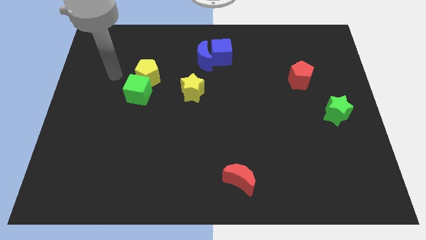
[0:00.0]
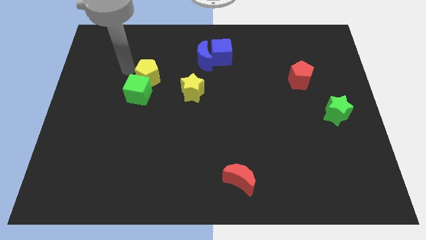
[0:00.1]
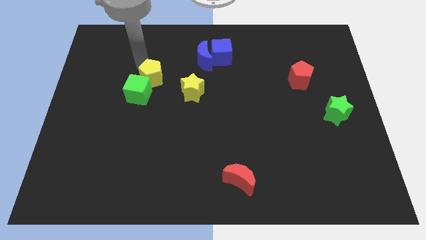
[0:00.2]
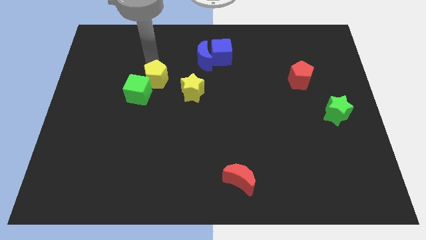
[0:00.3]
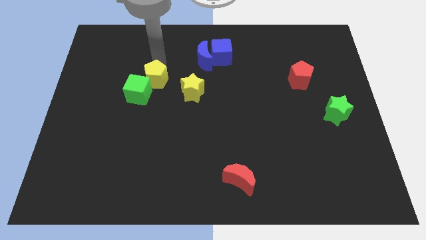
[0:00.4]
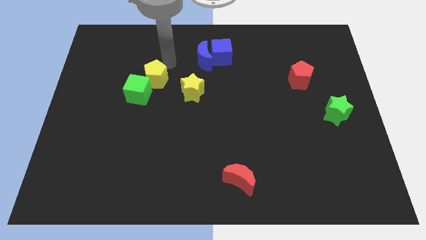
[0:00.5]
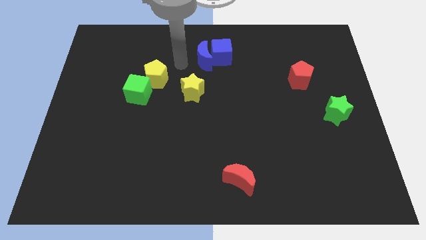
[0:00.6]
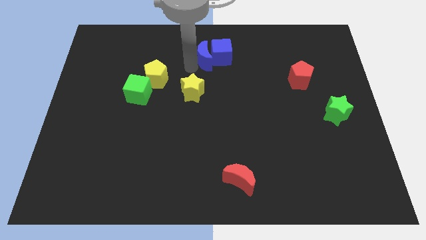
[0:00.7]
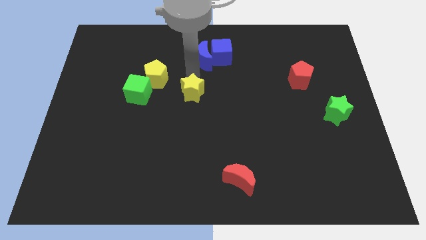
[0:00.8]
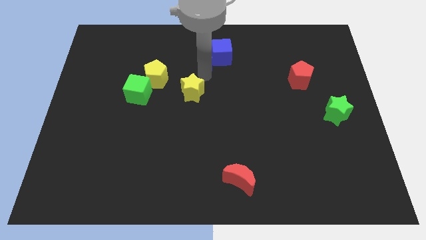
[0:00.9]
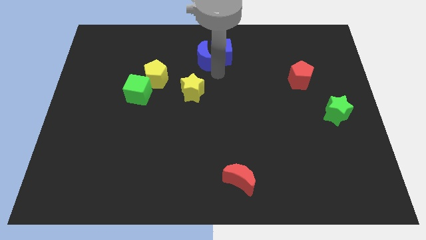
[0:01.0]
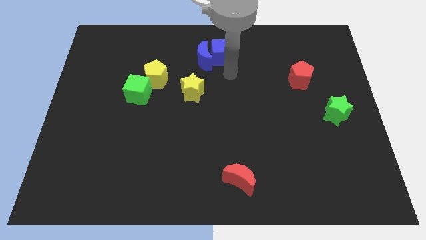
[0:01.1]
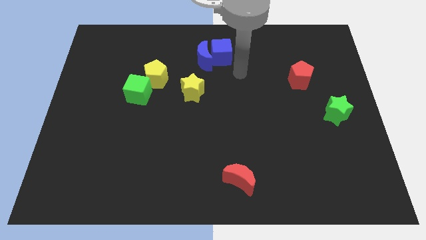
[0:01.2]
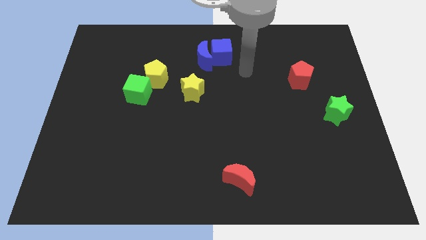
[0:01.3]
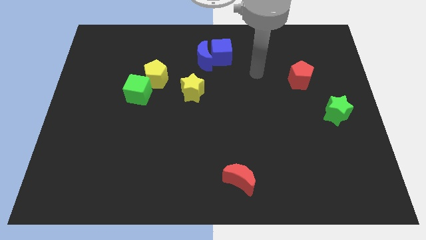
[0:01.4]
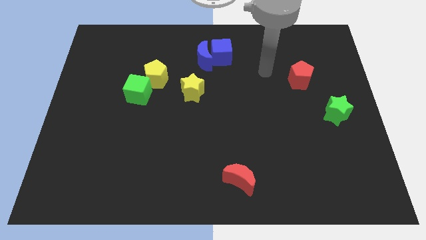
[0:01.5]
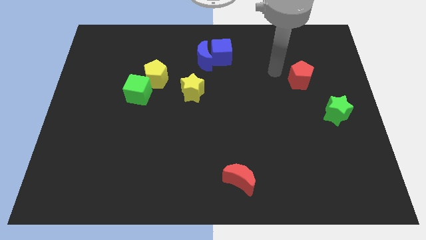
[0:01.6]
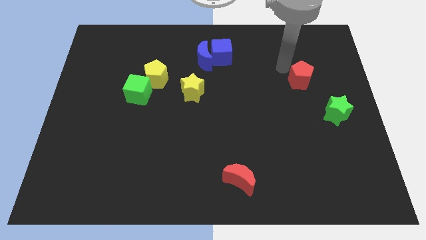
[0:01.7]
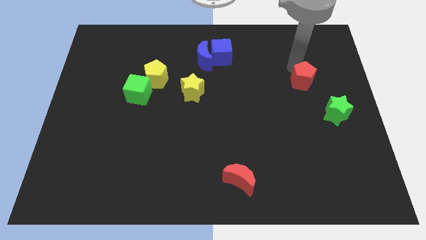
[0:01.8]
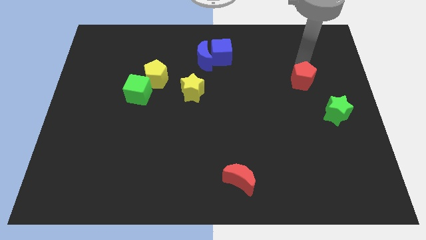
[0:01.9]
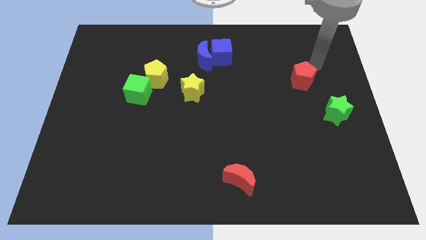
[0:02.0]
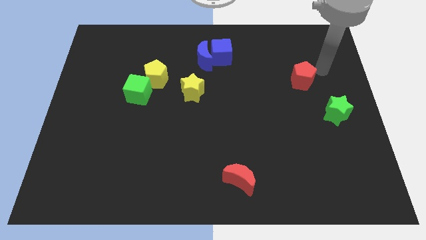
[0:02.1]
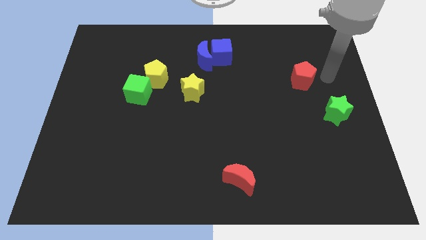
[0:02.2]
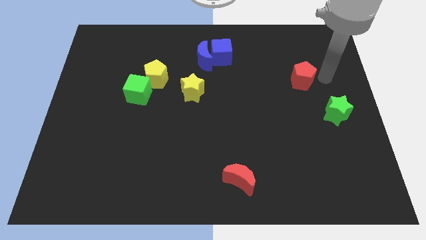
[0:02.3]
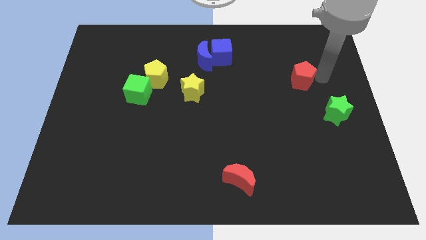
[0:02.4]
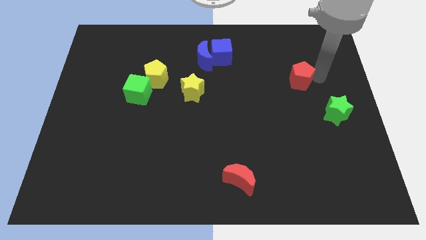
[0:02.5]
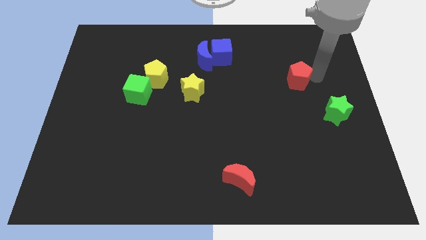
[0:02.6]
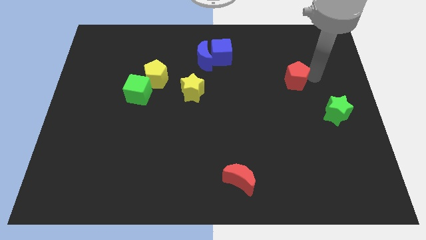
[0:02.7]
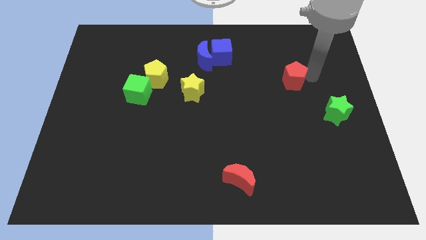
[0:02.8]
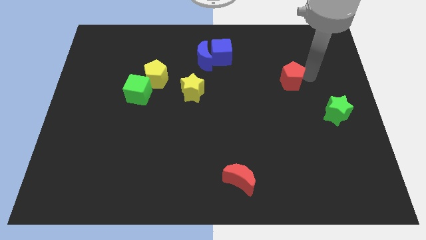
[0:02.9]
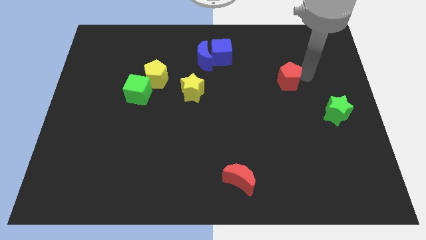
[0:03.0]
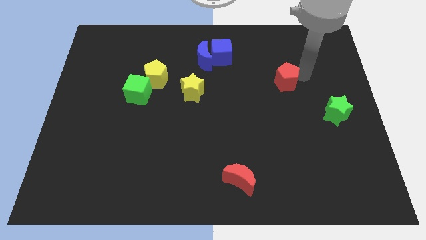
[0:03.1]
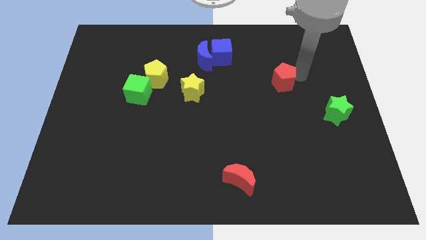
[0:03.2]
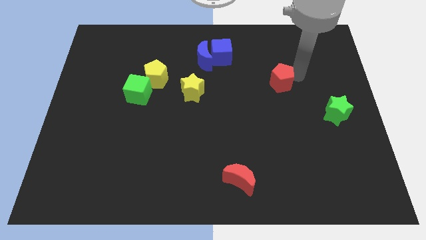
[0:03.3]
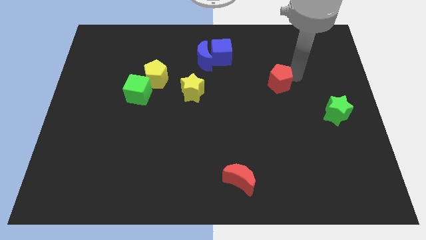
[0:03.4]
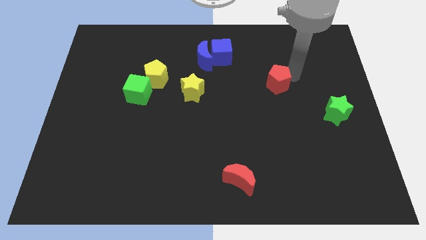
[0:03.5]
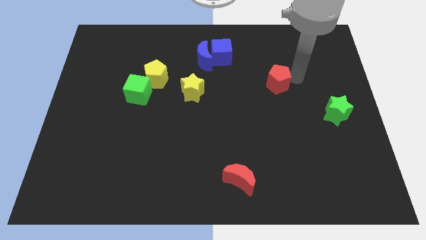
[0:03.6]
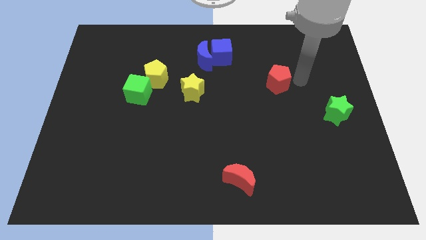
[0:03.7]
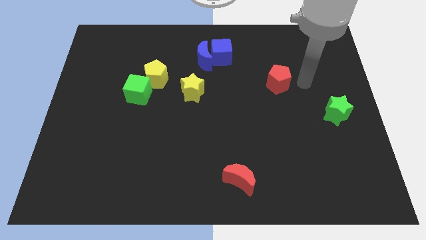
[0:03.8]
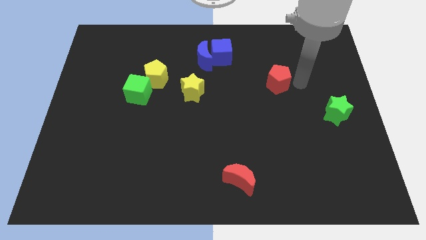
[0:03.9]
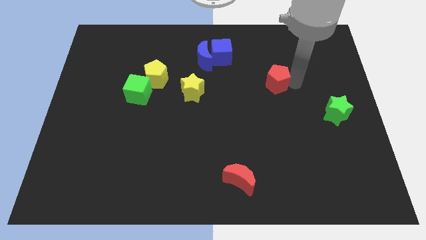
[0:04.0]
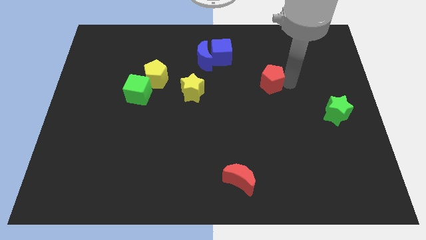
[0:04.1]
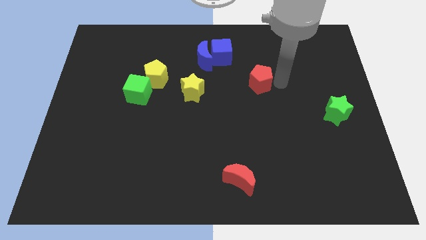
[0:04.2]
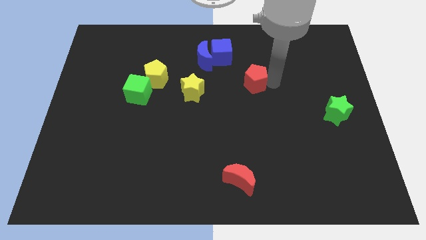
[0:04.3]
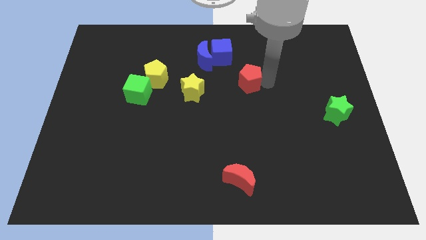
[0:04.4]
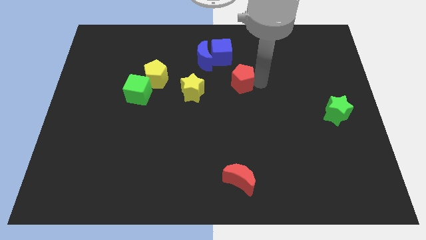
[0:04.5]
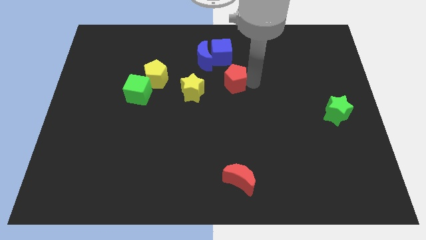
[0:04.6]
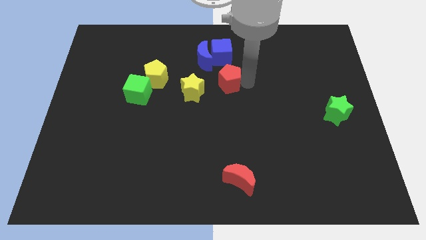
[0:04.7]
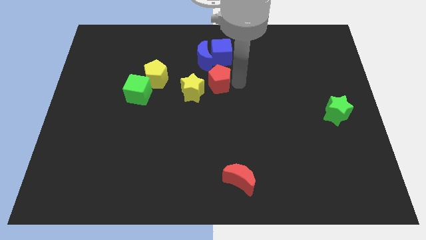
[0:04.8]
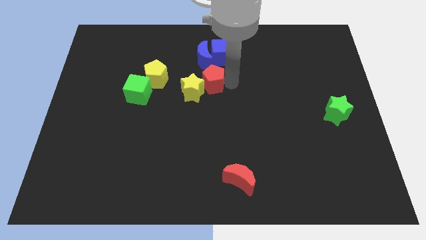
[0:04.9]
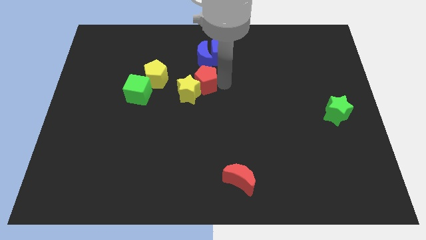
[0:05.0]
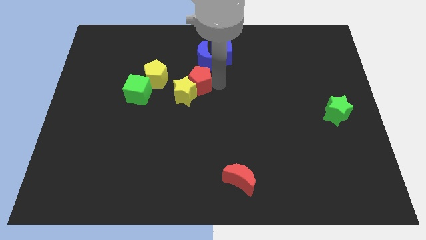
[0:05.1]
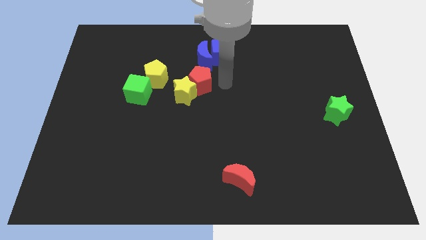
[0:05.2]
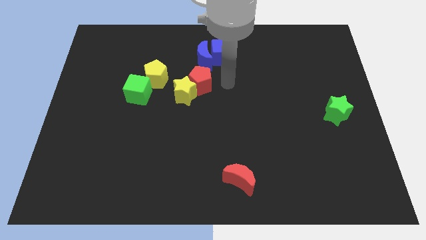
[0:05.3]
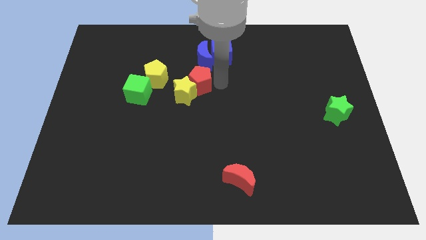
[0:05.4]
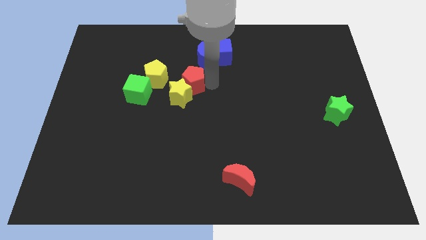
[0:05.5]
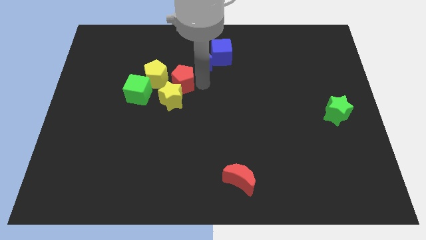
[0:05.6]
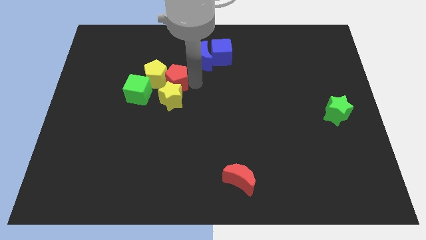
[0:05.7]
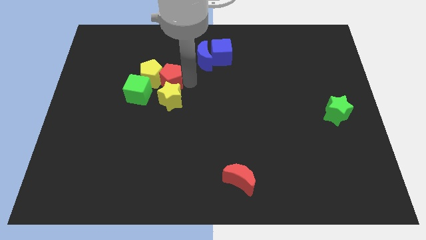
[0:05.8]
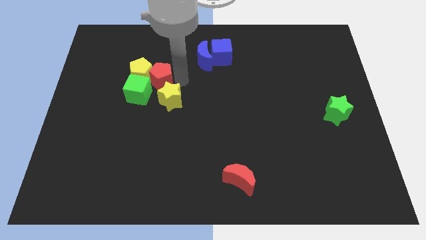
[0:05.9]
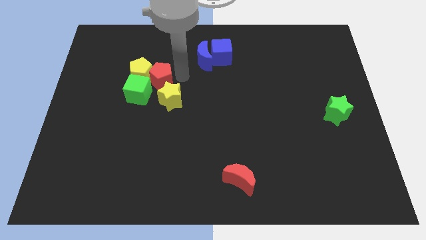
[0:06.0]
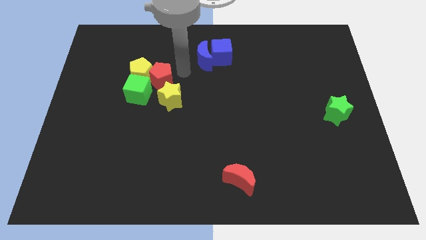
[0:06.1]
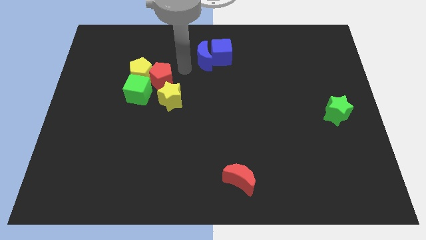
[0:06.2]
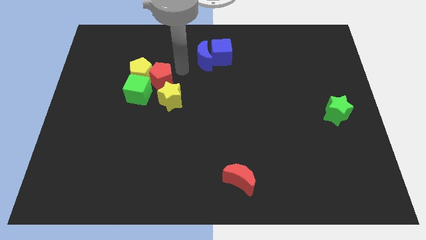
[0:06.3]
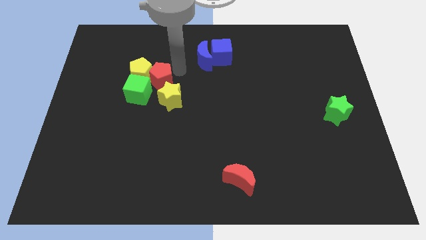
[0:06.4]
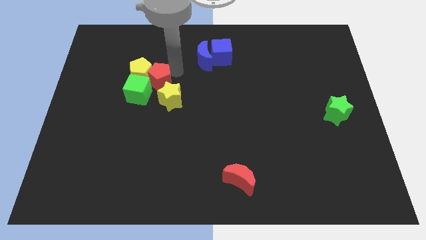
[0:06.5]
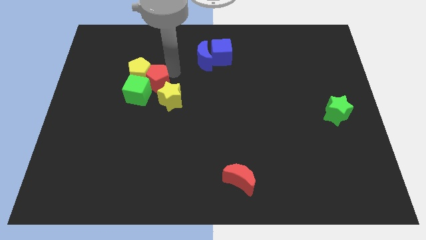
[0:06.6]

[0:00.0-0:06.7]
slide the red pentagon close to the green cube

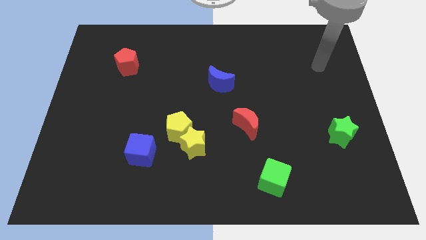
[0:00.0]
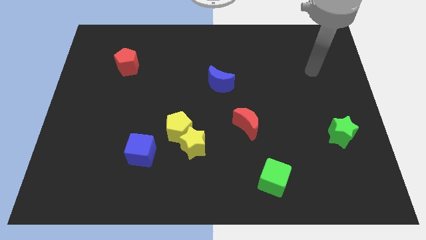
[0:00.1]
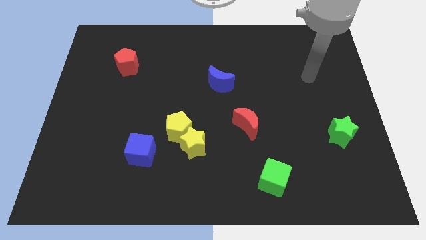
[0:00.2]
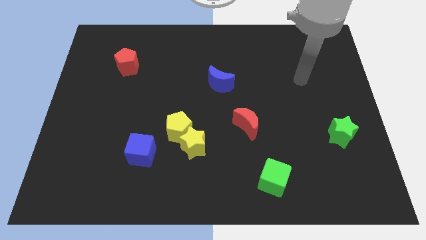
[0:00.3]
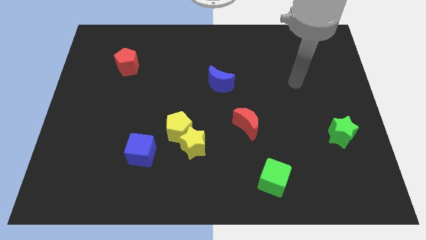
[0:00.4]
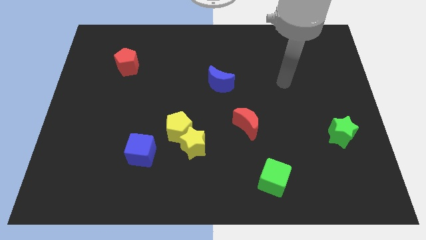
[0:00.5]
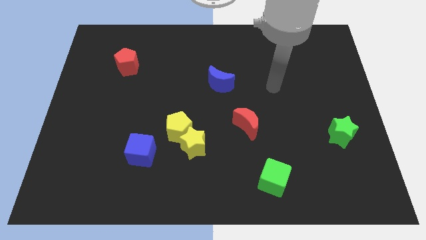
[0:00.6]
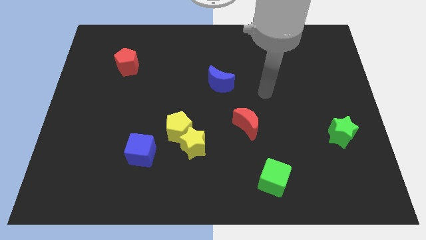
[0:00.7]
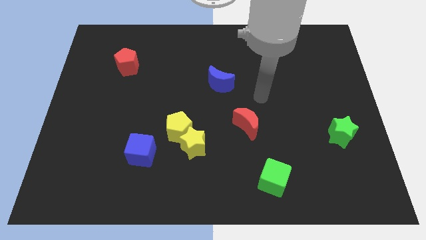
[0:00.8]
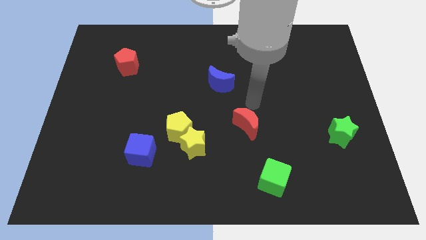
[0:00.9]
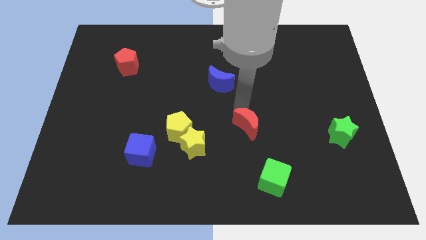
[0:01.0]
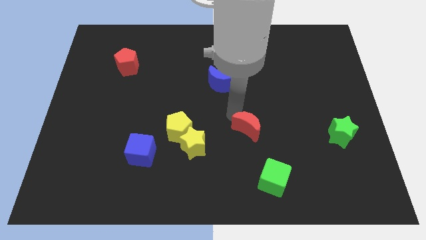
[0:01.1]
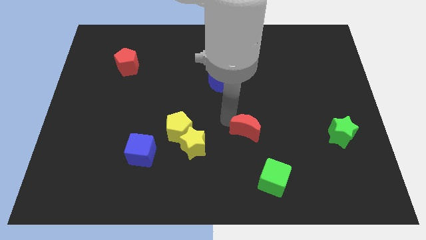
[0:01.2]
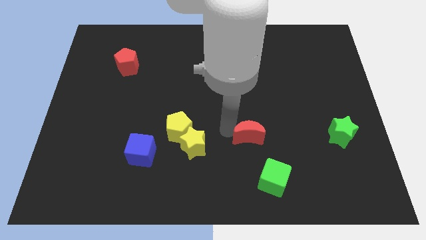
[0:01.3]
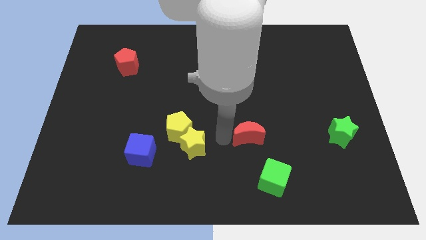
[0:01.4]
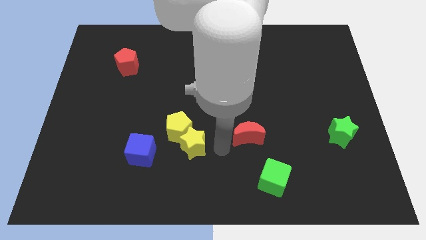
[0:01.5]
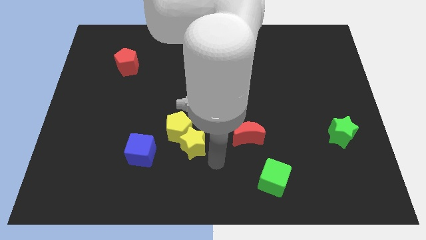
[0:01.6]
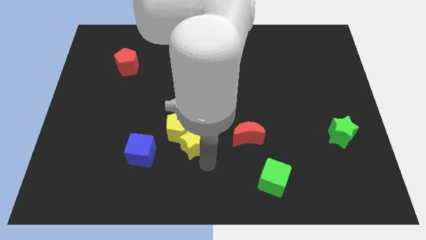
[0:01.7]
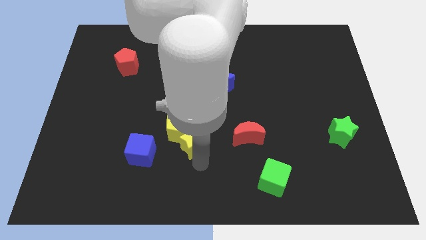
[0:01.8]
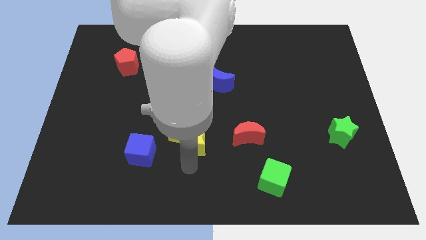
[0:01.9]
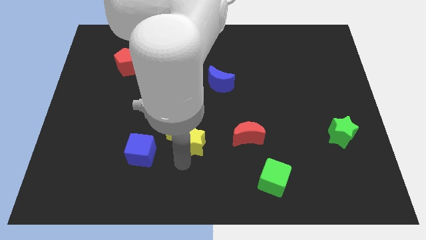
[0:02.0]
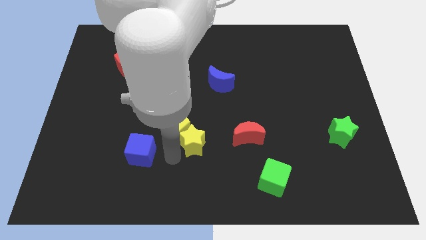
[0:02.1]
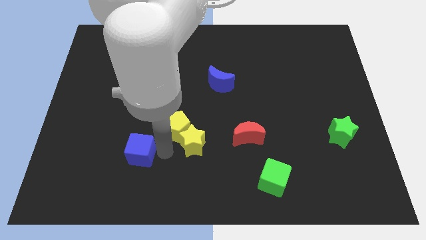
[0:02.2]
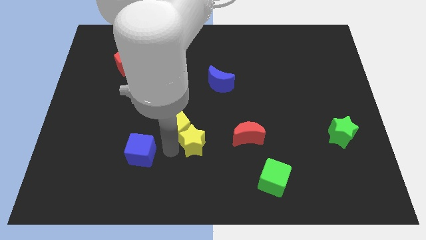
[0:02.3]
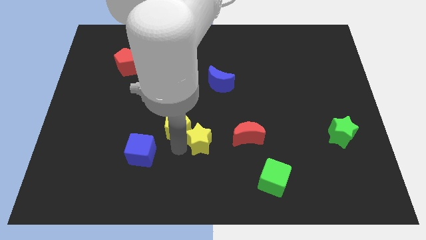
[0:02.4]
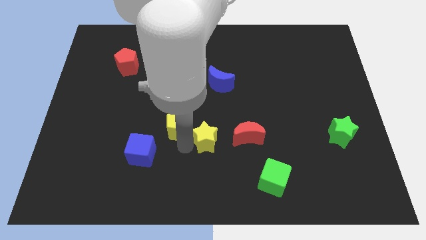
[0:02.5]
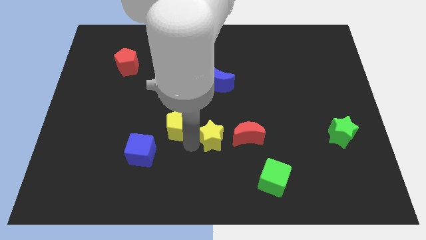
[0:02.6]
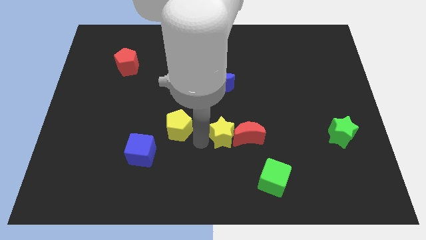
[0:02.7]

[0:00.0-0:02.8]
slide the yellow star towards the red moon
